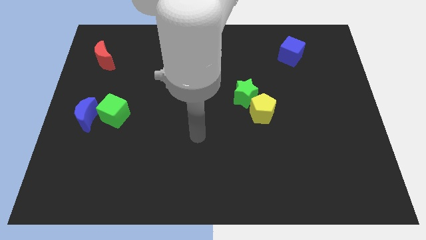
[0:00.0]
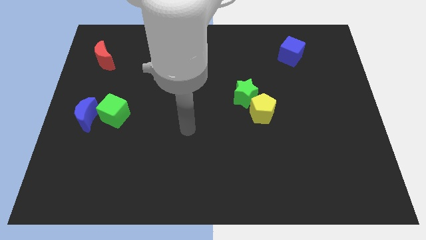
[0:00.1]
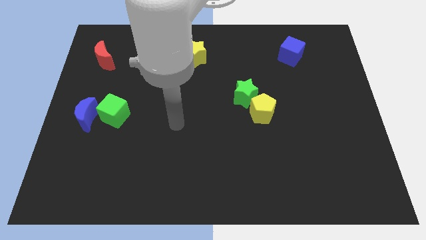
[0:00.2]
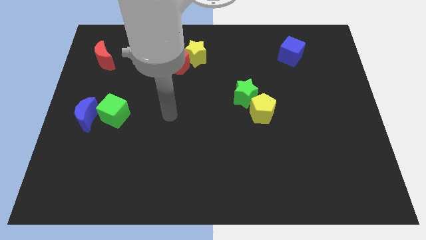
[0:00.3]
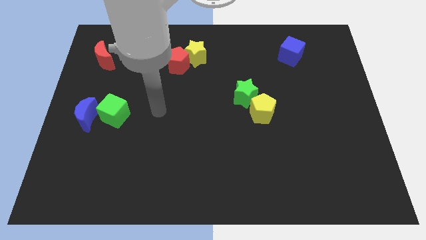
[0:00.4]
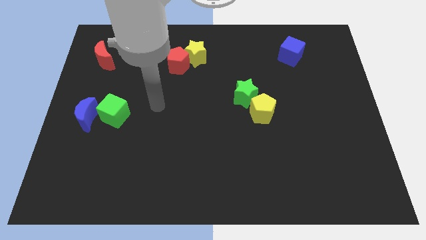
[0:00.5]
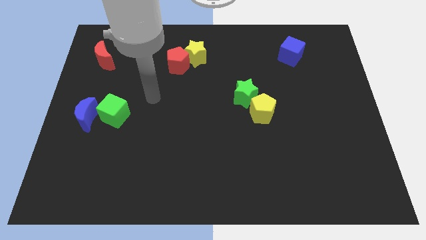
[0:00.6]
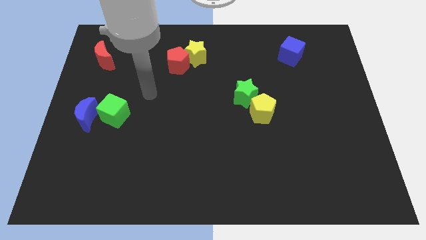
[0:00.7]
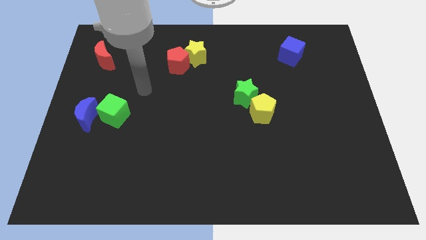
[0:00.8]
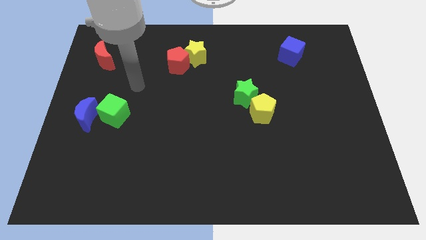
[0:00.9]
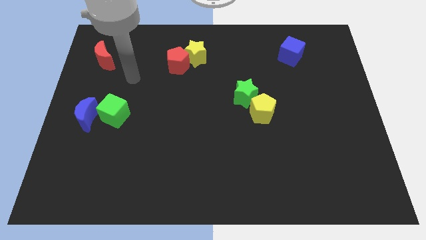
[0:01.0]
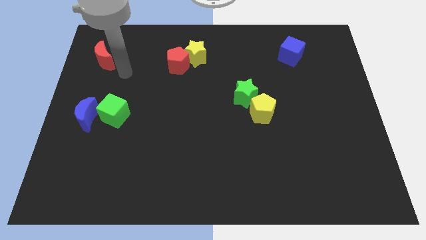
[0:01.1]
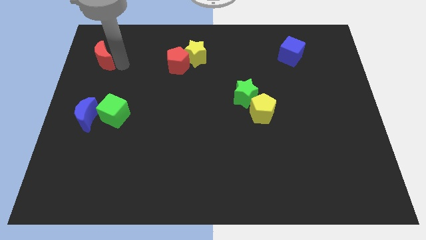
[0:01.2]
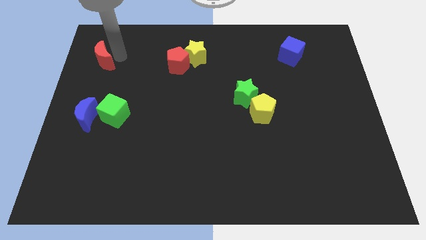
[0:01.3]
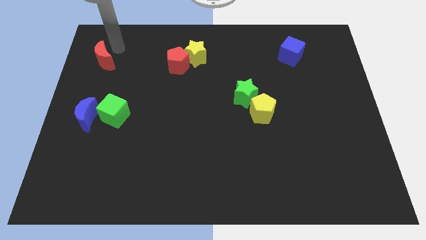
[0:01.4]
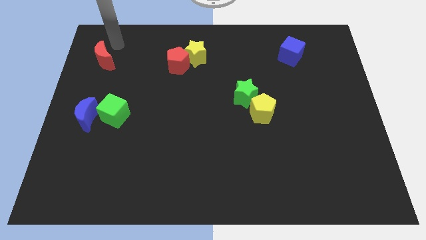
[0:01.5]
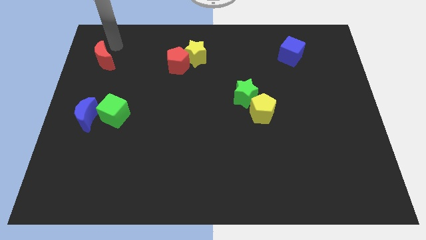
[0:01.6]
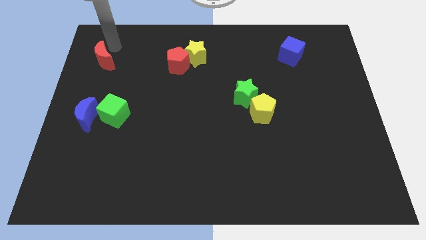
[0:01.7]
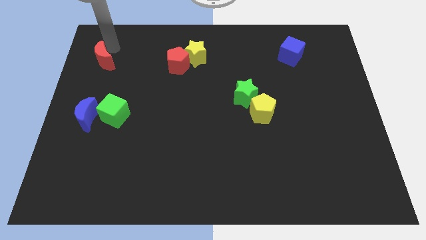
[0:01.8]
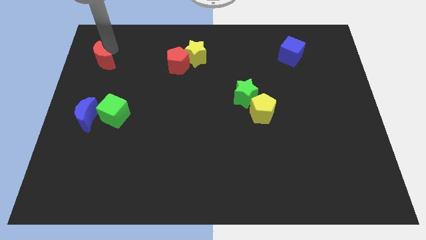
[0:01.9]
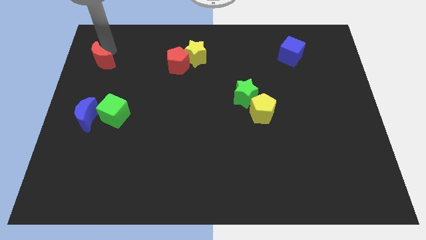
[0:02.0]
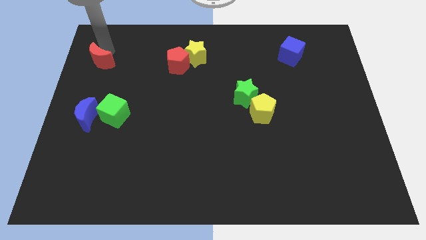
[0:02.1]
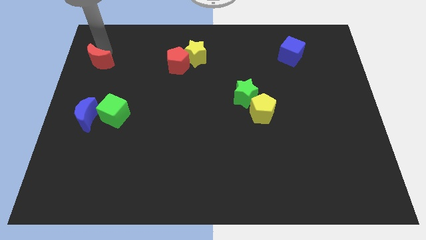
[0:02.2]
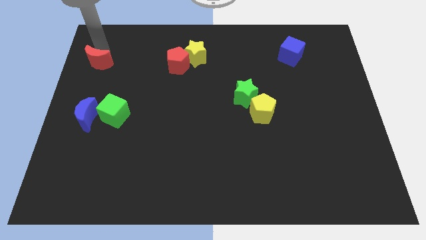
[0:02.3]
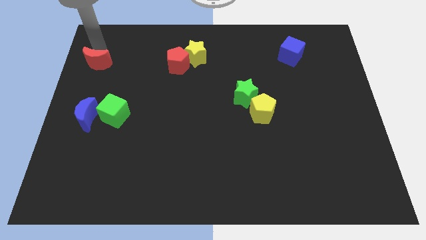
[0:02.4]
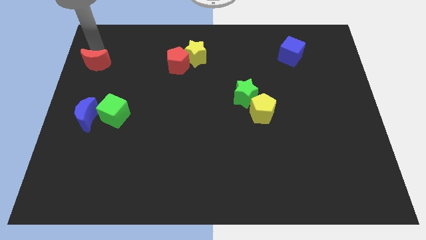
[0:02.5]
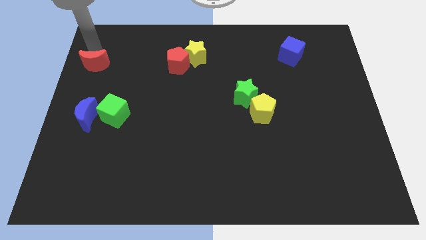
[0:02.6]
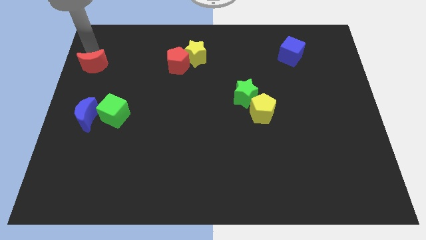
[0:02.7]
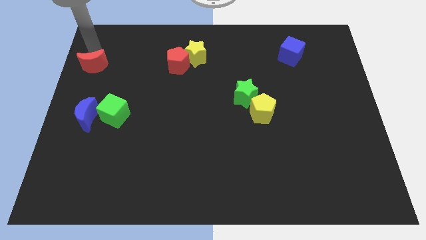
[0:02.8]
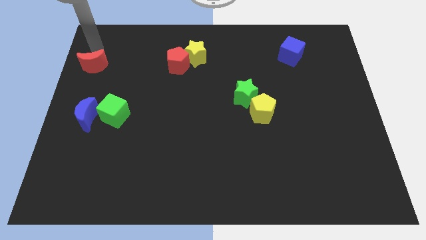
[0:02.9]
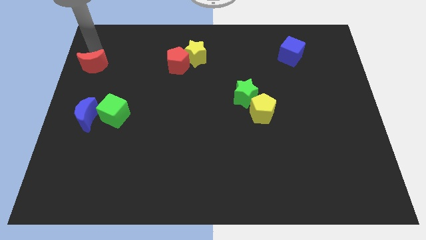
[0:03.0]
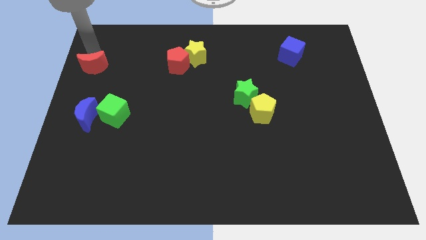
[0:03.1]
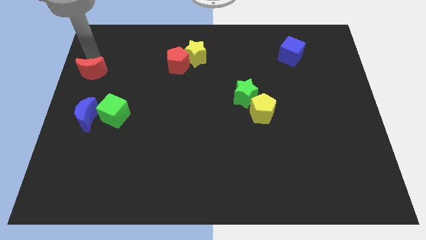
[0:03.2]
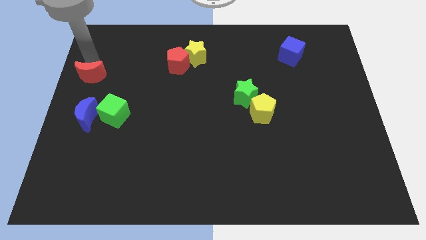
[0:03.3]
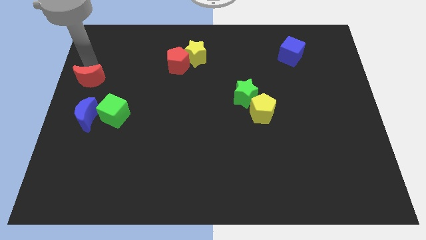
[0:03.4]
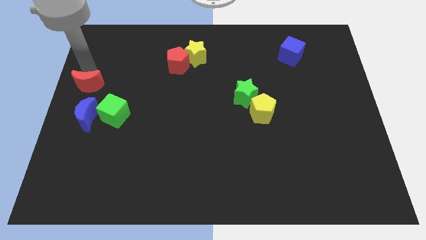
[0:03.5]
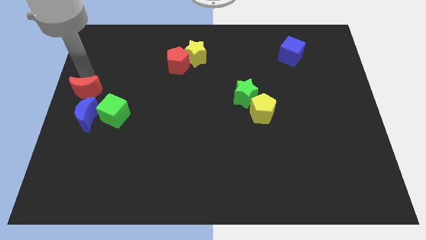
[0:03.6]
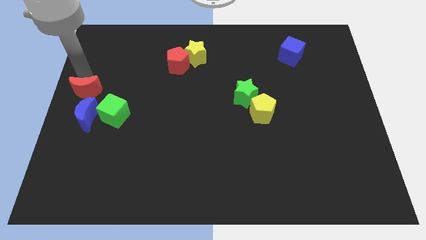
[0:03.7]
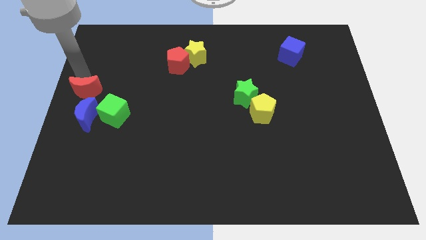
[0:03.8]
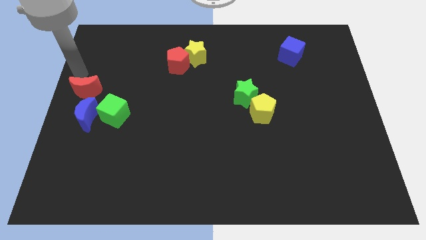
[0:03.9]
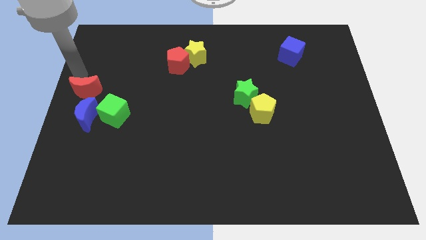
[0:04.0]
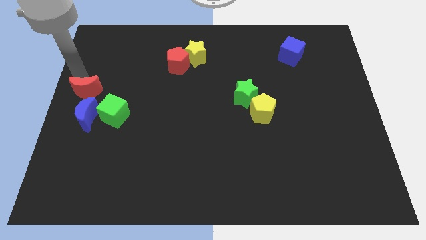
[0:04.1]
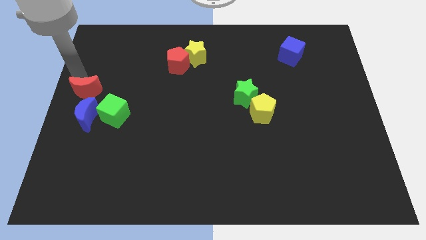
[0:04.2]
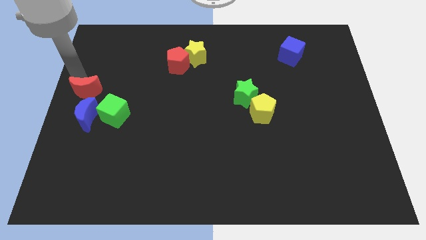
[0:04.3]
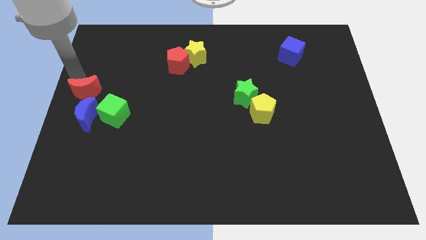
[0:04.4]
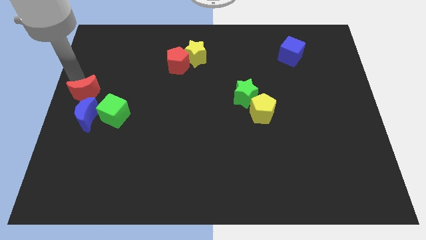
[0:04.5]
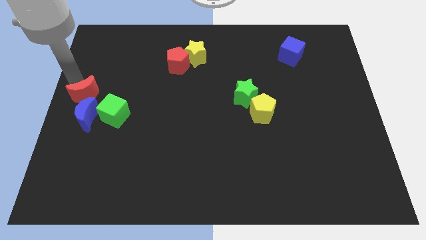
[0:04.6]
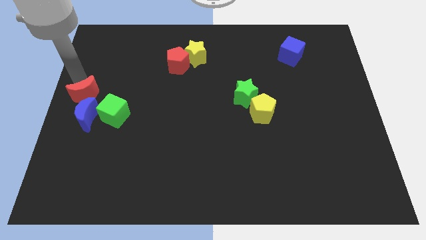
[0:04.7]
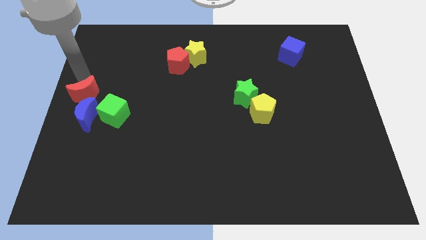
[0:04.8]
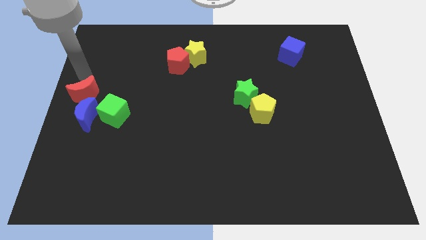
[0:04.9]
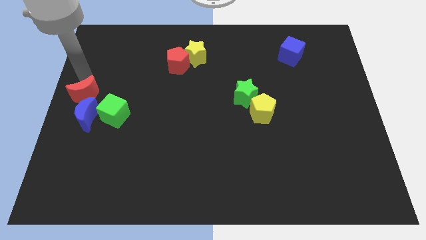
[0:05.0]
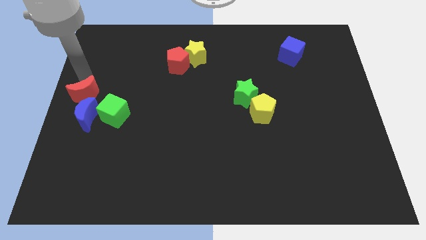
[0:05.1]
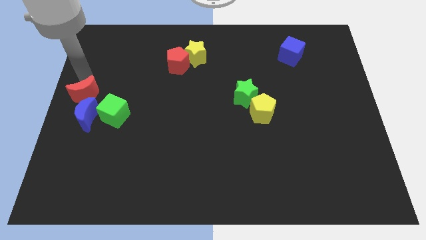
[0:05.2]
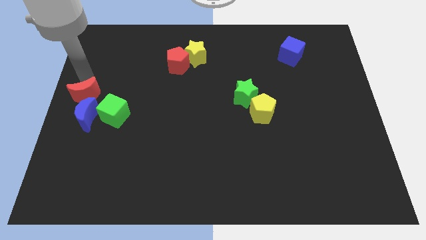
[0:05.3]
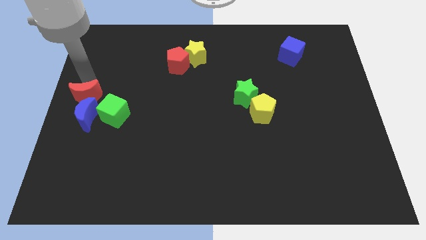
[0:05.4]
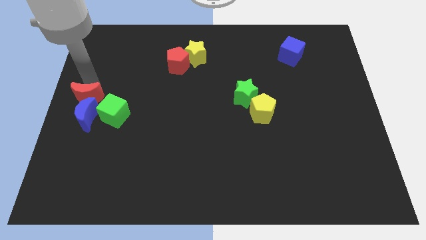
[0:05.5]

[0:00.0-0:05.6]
push the red moon to the blue moon
